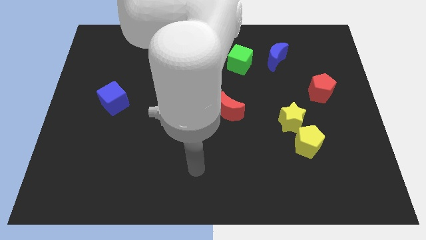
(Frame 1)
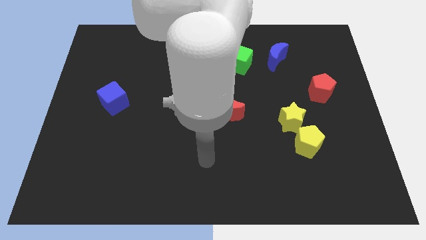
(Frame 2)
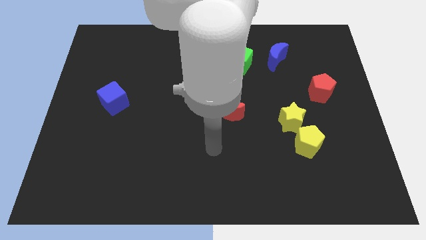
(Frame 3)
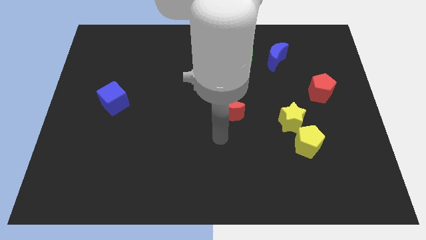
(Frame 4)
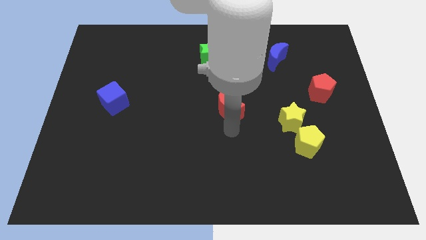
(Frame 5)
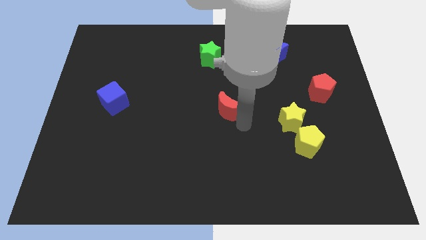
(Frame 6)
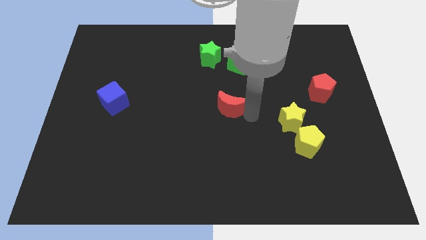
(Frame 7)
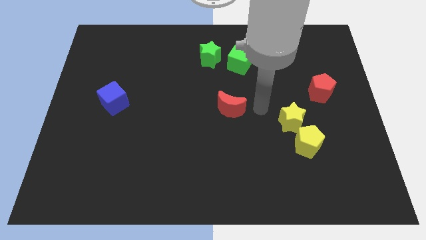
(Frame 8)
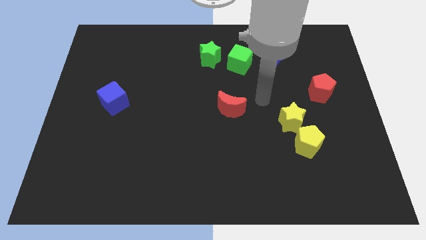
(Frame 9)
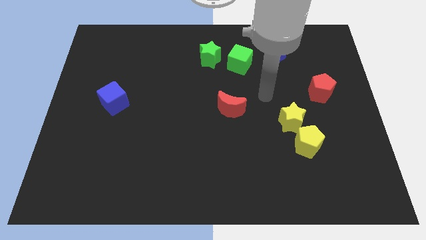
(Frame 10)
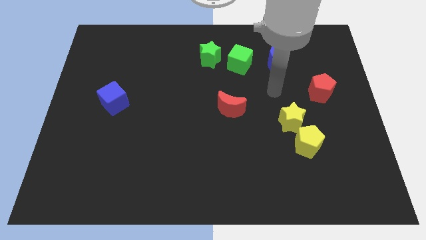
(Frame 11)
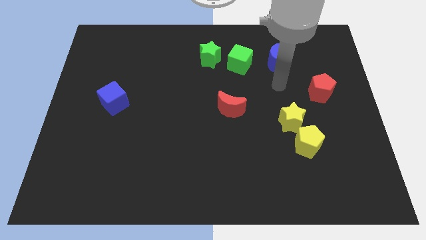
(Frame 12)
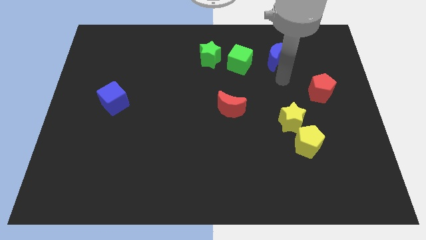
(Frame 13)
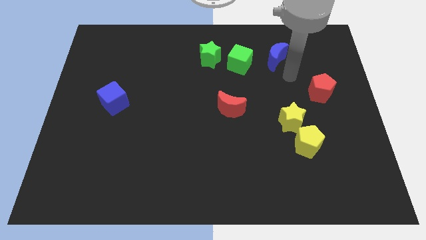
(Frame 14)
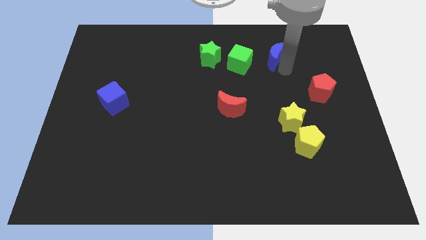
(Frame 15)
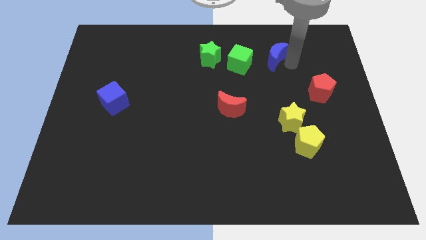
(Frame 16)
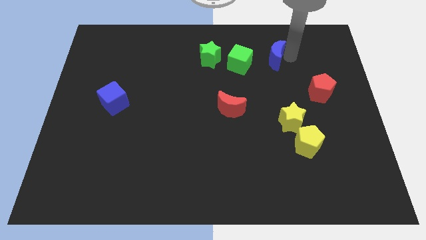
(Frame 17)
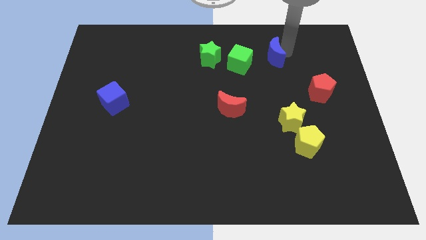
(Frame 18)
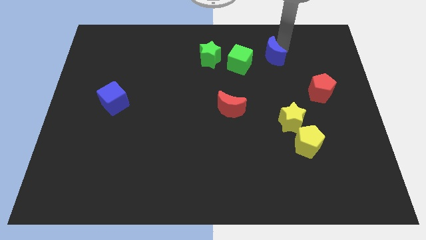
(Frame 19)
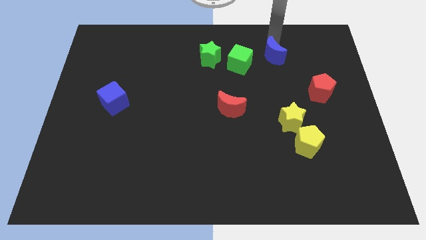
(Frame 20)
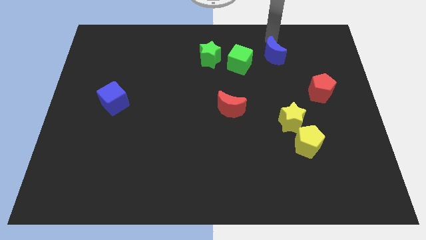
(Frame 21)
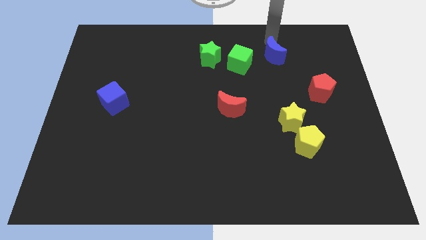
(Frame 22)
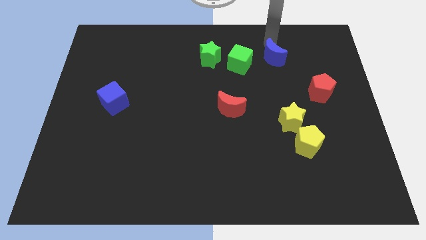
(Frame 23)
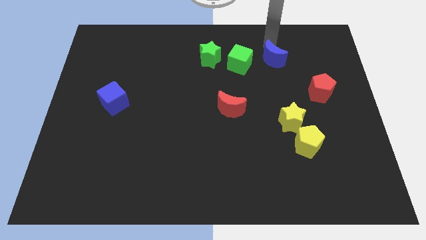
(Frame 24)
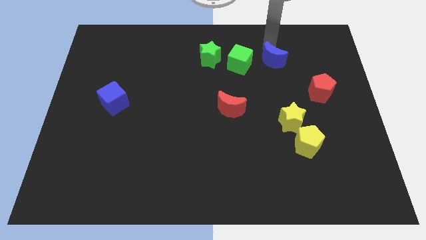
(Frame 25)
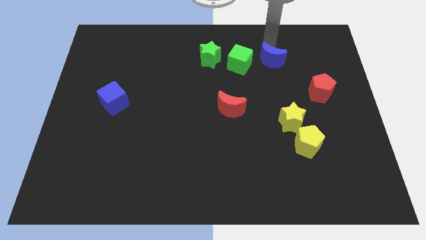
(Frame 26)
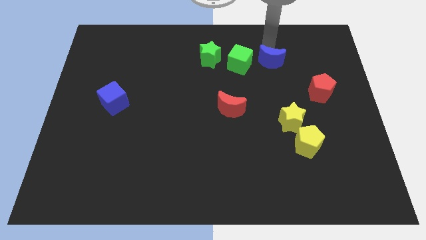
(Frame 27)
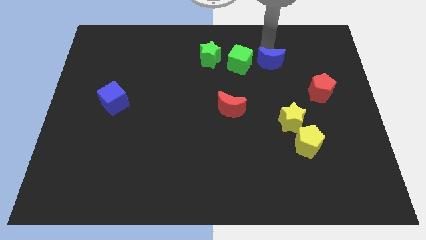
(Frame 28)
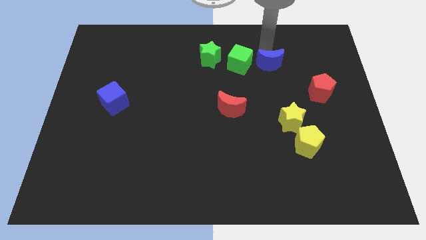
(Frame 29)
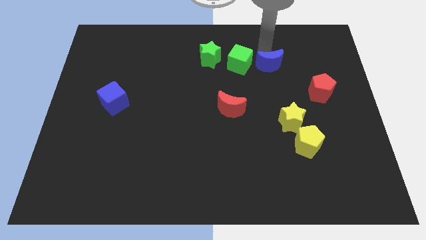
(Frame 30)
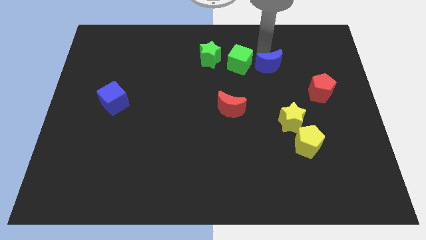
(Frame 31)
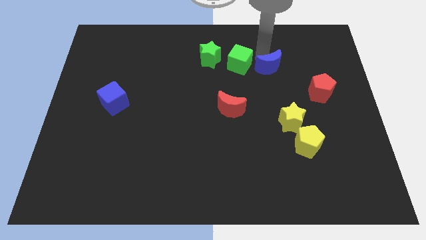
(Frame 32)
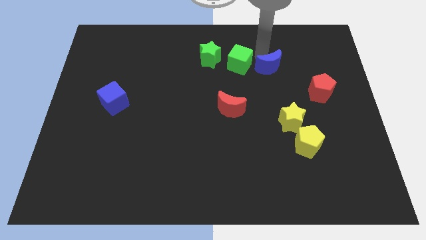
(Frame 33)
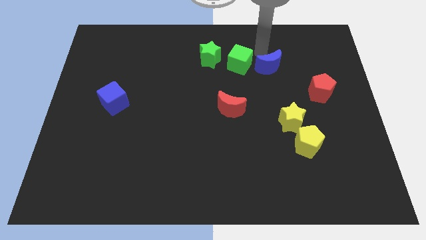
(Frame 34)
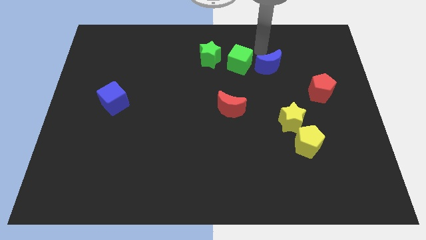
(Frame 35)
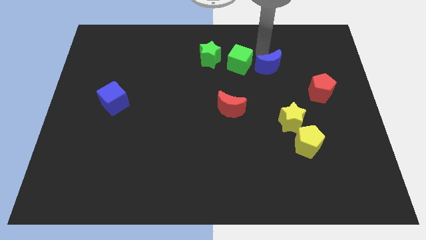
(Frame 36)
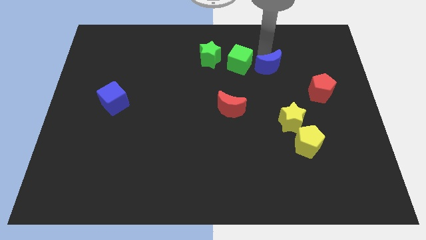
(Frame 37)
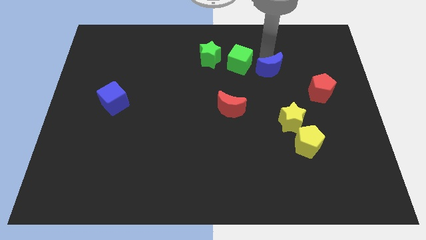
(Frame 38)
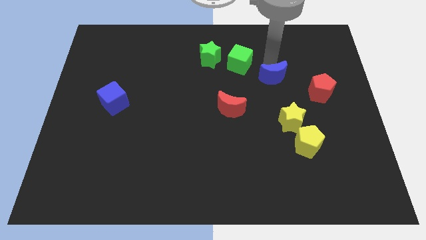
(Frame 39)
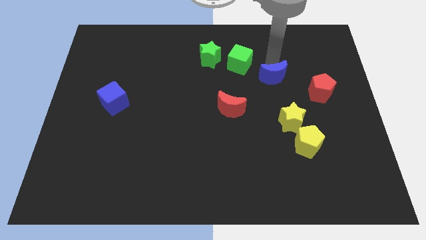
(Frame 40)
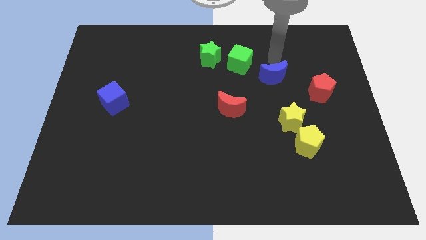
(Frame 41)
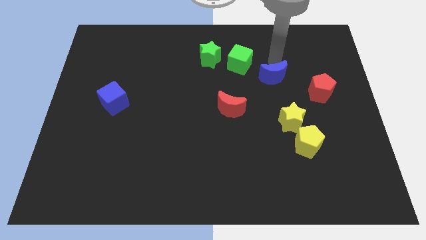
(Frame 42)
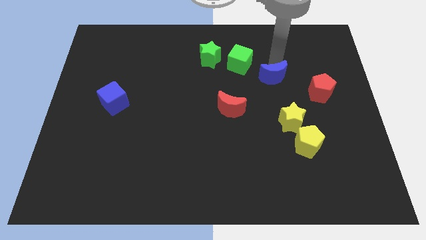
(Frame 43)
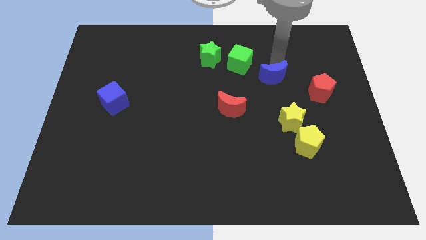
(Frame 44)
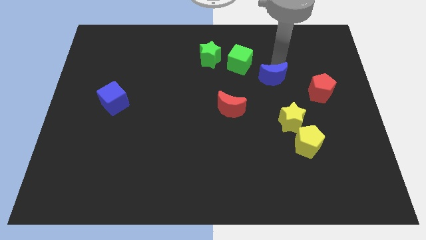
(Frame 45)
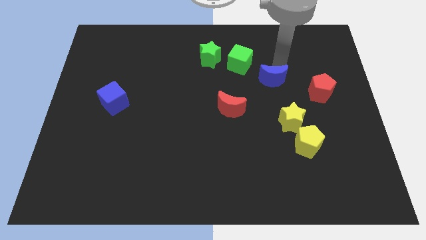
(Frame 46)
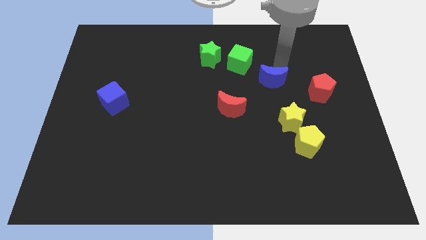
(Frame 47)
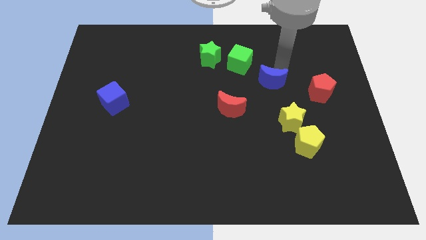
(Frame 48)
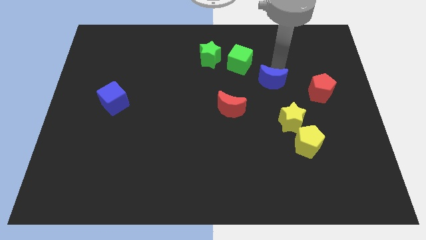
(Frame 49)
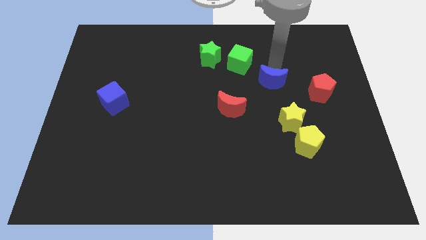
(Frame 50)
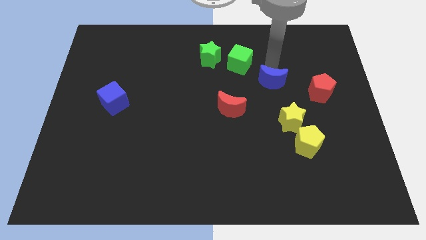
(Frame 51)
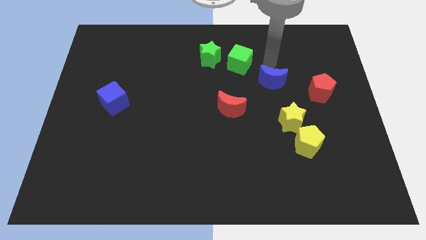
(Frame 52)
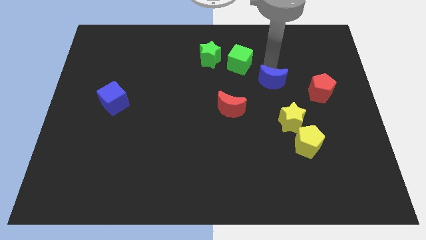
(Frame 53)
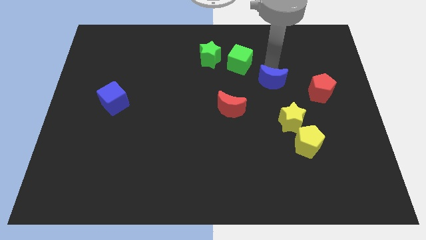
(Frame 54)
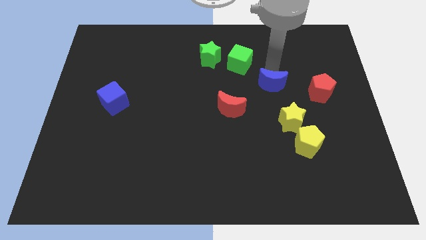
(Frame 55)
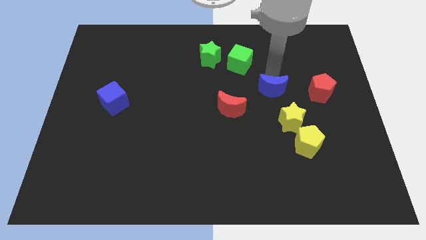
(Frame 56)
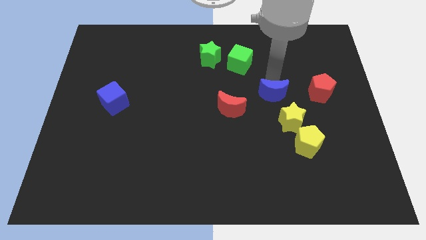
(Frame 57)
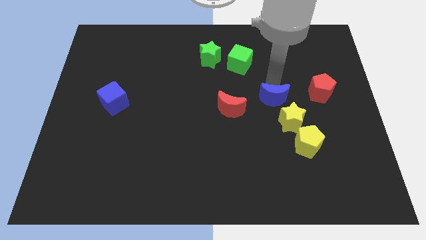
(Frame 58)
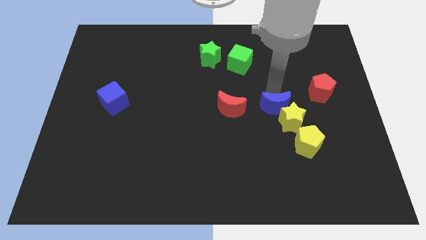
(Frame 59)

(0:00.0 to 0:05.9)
put the blue moon to the top left side of the yellow pentagon

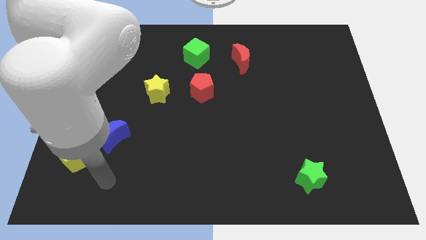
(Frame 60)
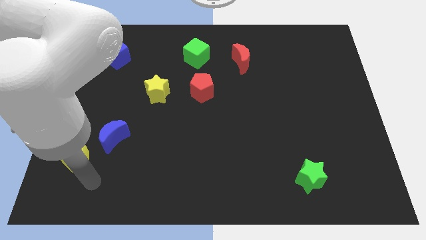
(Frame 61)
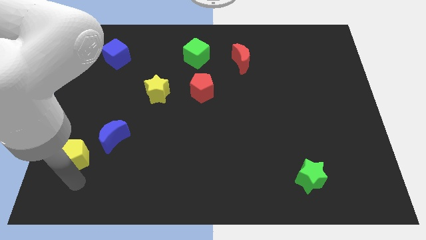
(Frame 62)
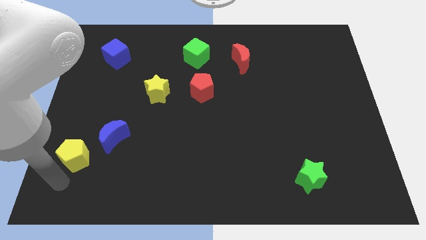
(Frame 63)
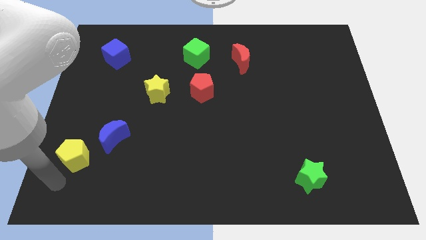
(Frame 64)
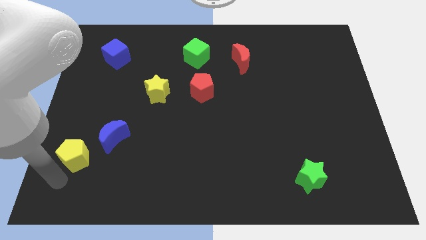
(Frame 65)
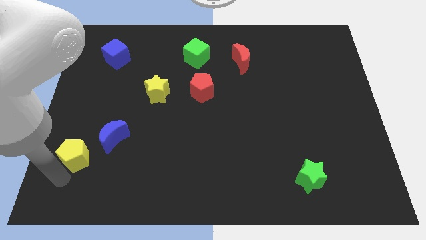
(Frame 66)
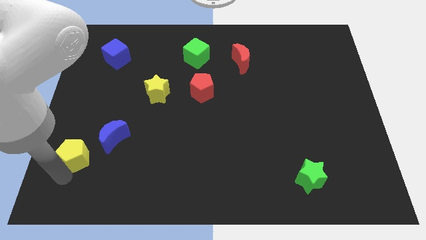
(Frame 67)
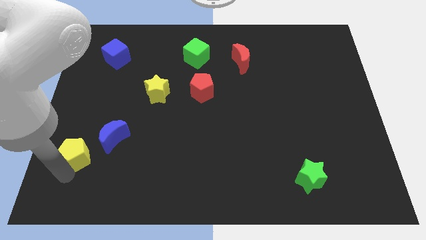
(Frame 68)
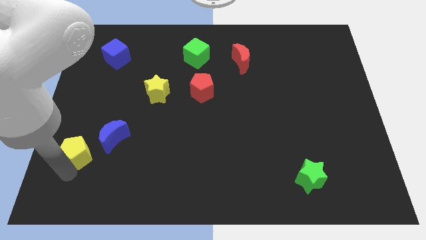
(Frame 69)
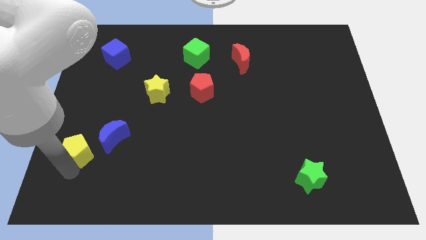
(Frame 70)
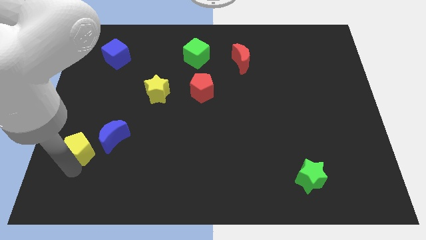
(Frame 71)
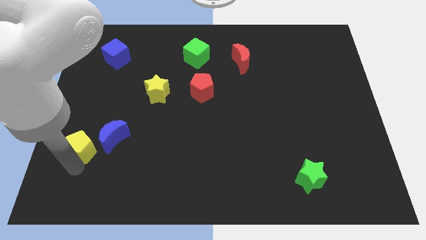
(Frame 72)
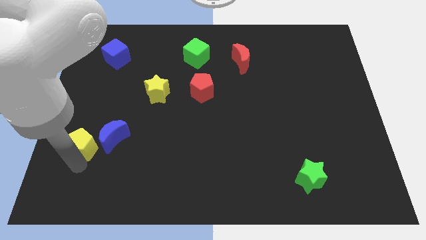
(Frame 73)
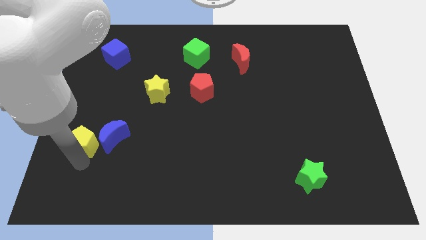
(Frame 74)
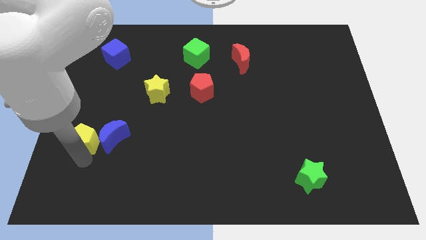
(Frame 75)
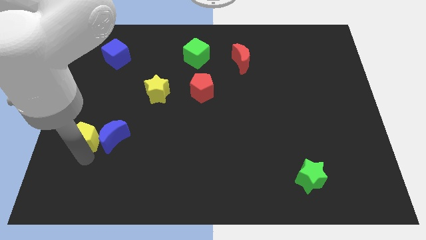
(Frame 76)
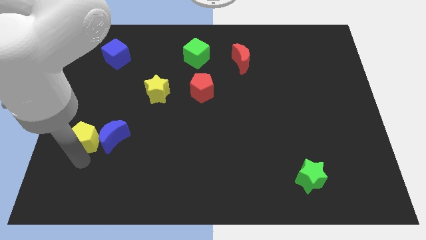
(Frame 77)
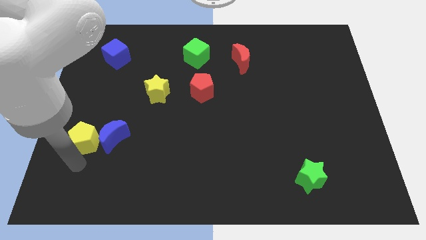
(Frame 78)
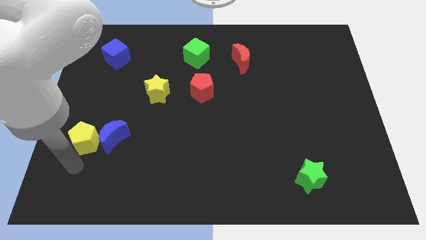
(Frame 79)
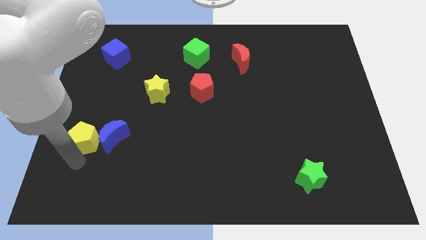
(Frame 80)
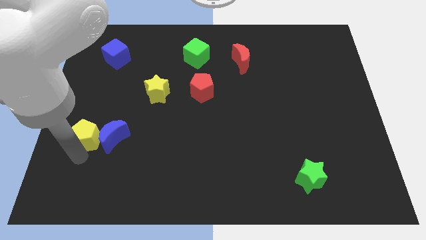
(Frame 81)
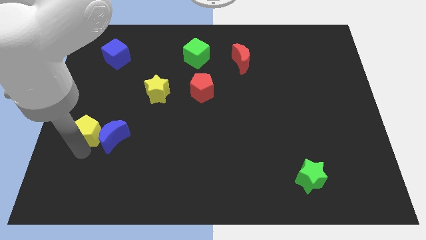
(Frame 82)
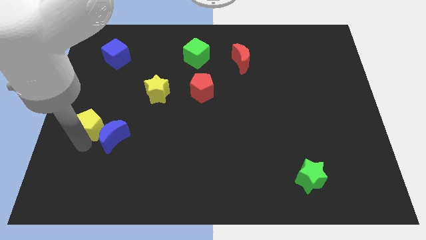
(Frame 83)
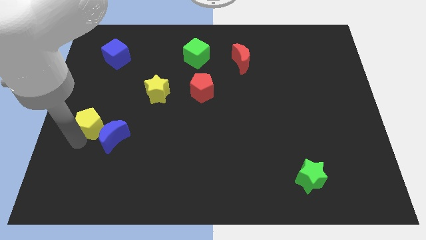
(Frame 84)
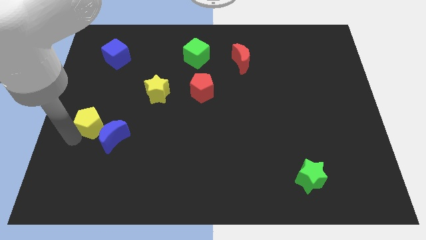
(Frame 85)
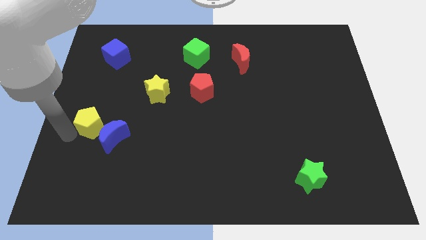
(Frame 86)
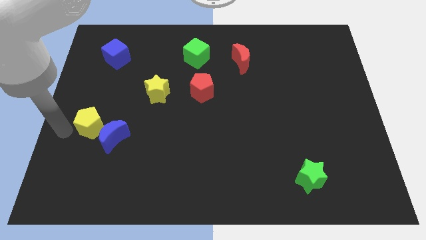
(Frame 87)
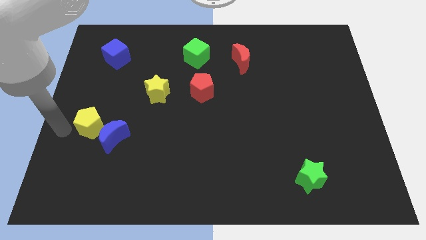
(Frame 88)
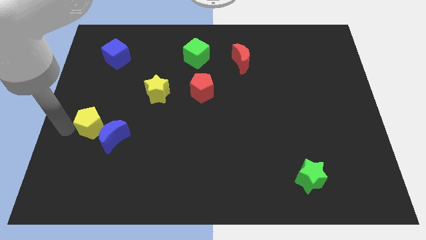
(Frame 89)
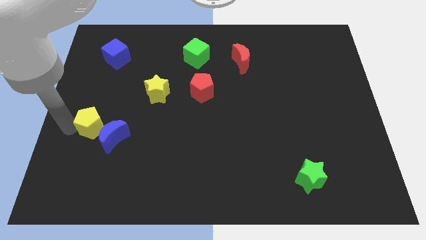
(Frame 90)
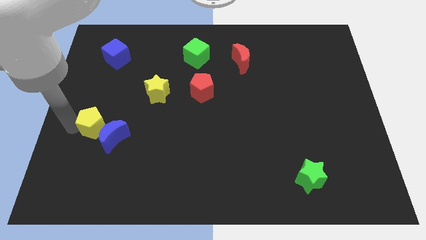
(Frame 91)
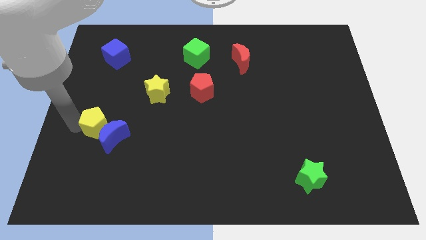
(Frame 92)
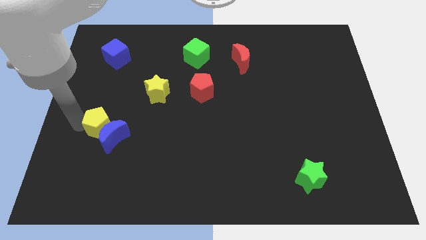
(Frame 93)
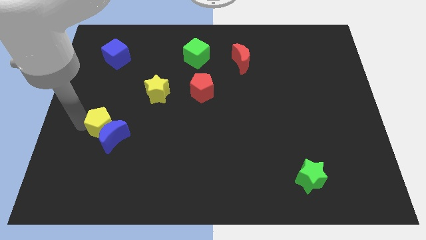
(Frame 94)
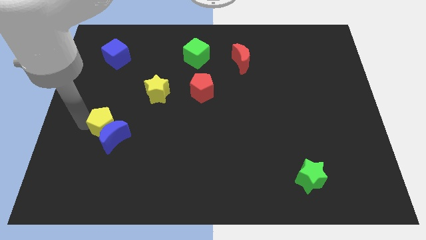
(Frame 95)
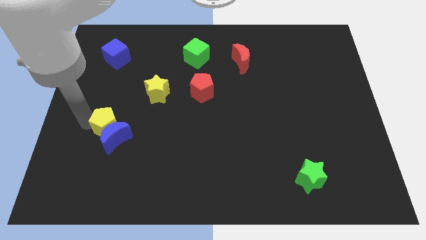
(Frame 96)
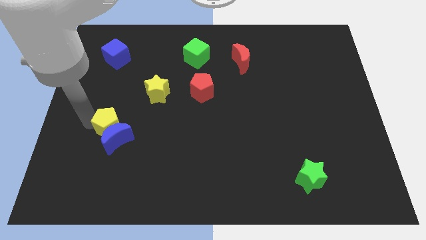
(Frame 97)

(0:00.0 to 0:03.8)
push the yellow pentagon diagonally up and to the right of the blue moon
